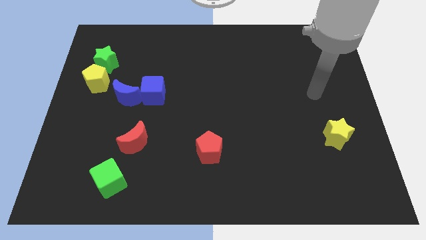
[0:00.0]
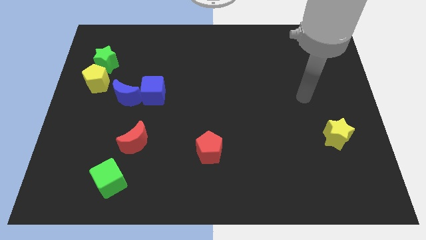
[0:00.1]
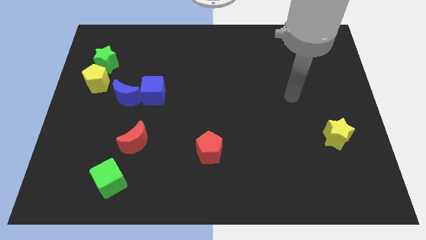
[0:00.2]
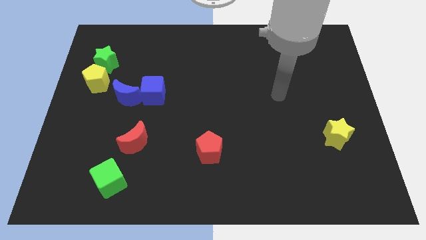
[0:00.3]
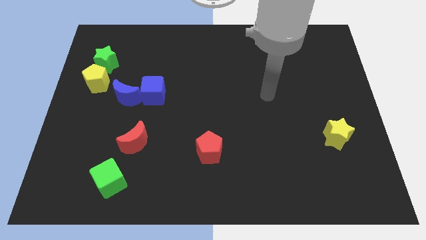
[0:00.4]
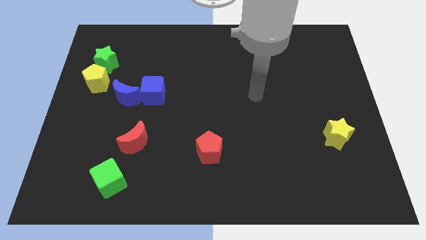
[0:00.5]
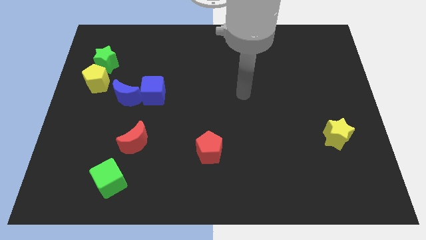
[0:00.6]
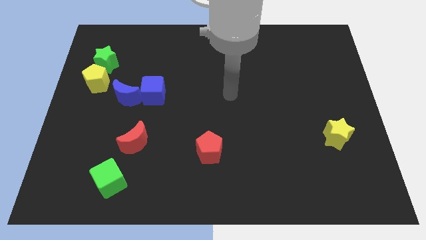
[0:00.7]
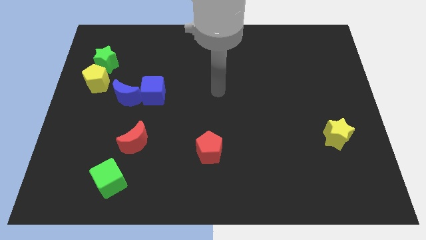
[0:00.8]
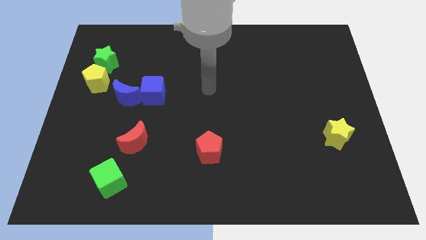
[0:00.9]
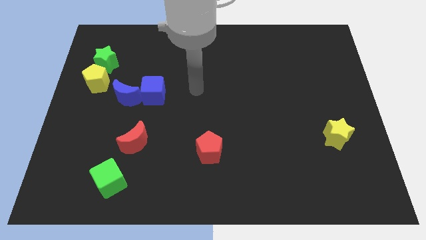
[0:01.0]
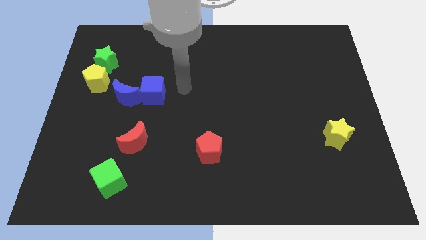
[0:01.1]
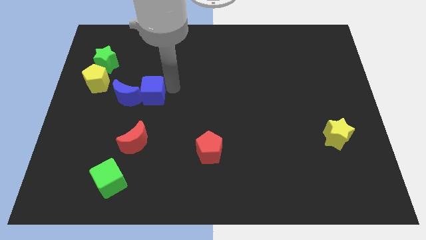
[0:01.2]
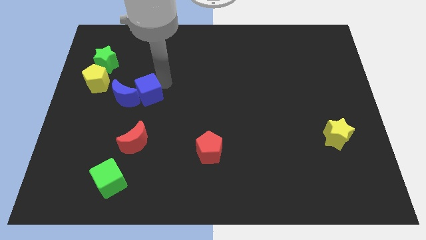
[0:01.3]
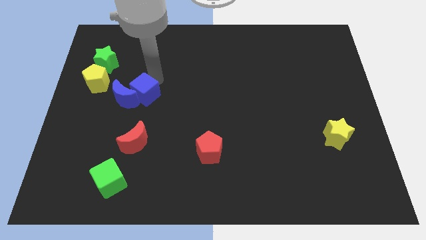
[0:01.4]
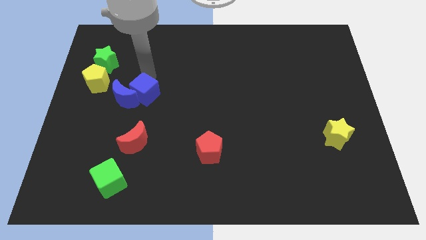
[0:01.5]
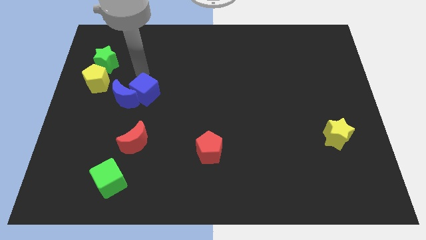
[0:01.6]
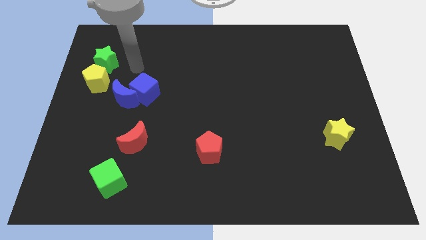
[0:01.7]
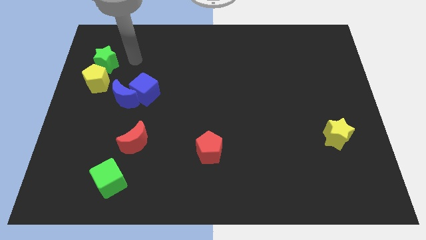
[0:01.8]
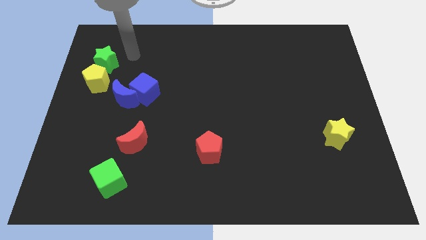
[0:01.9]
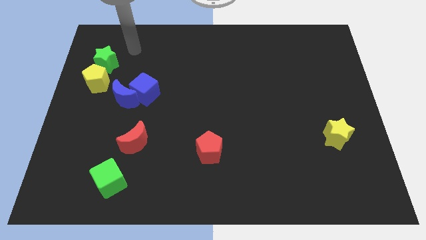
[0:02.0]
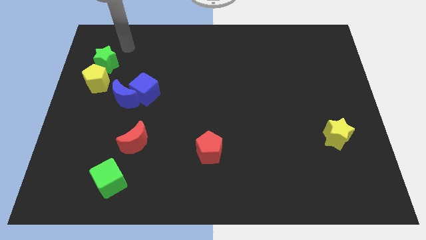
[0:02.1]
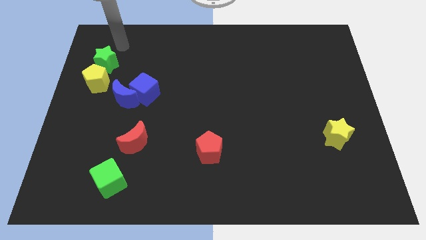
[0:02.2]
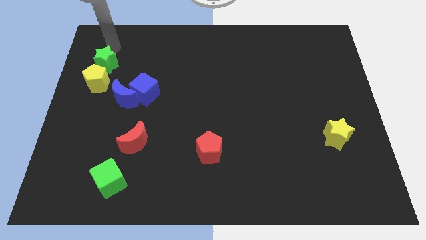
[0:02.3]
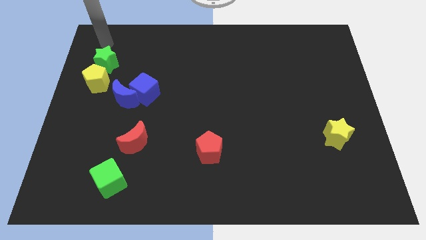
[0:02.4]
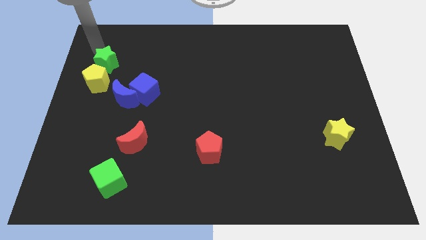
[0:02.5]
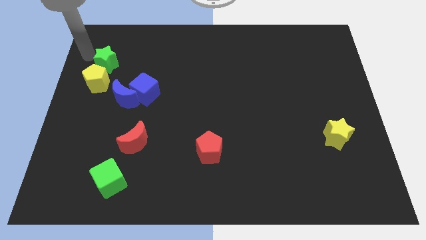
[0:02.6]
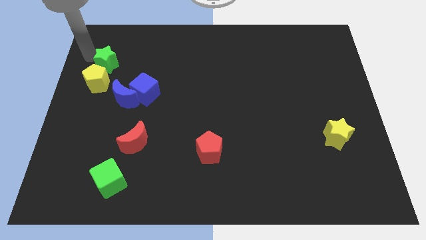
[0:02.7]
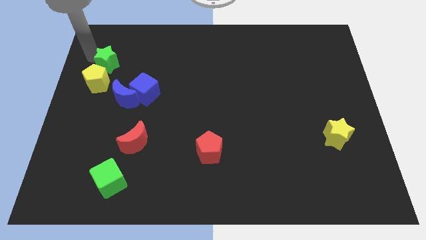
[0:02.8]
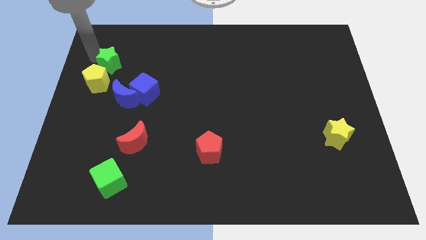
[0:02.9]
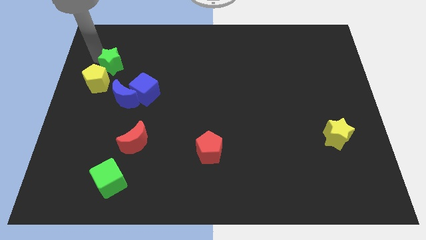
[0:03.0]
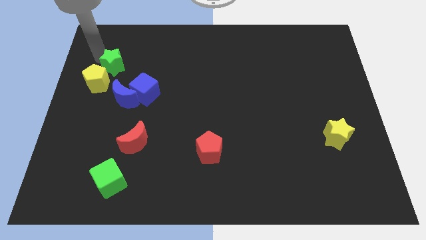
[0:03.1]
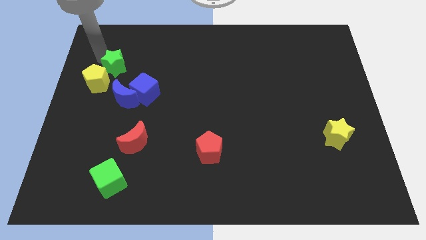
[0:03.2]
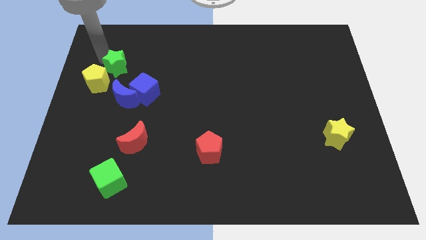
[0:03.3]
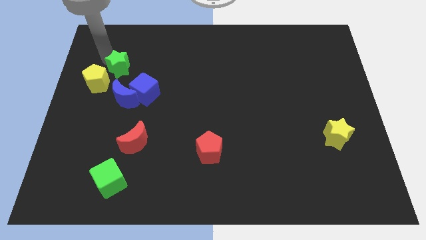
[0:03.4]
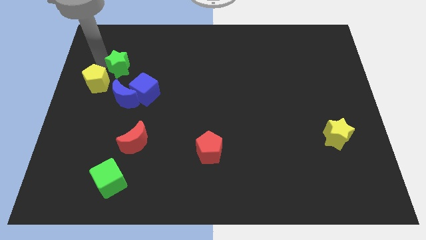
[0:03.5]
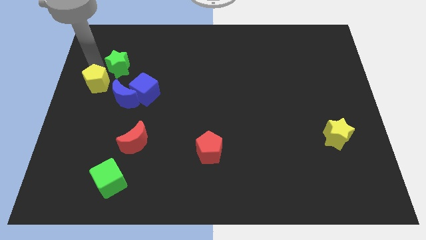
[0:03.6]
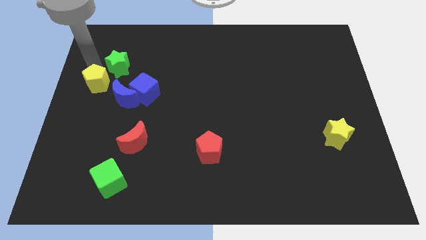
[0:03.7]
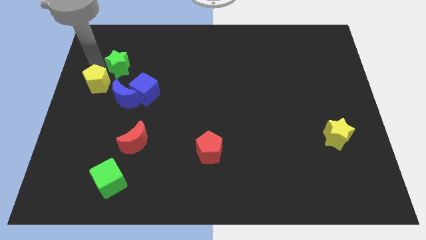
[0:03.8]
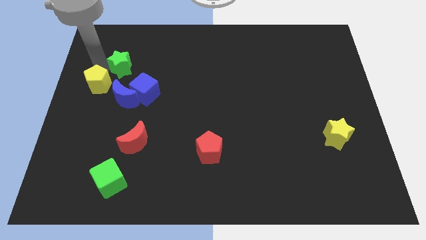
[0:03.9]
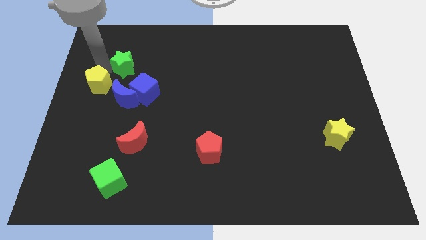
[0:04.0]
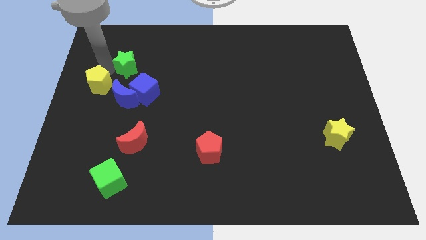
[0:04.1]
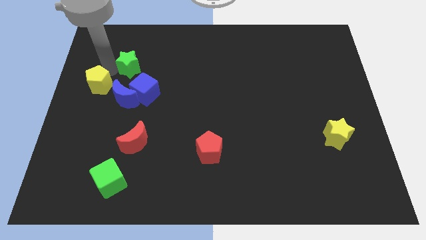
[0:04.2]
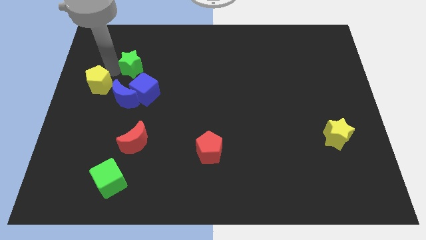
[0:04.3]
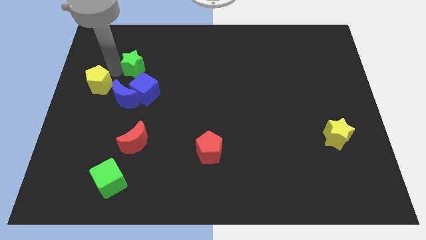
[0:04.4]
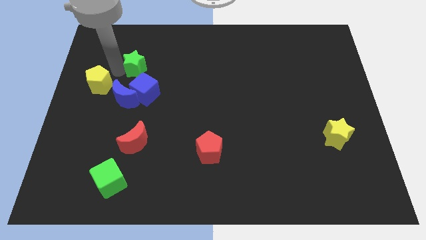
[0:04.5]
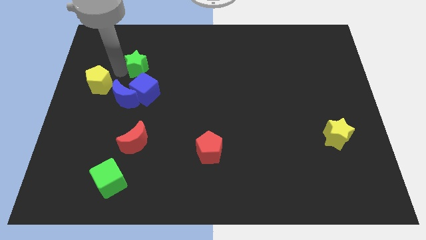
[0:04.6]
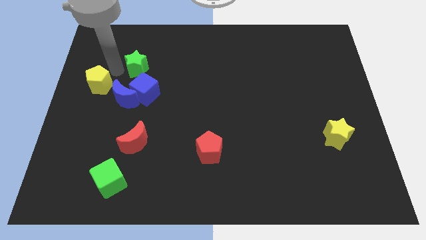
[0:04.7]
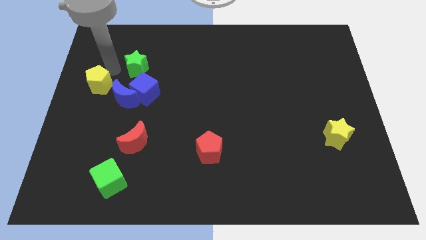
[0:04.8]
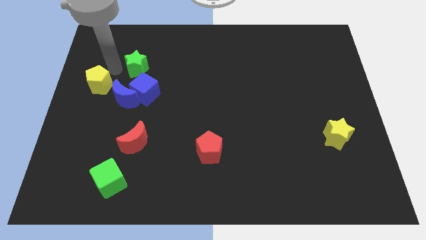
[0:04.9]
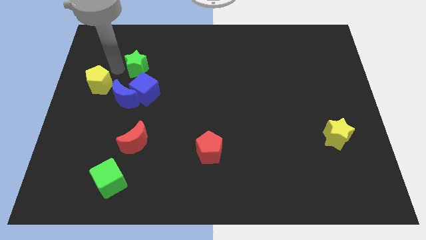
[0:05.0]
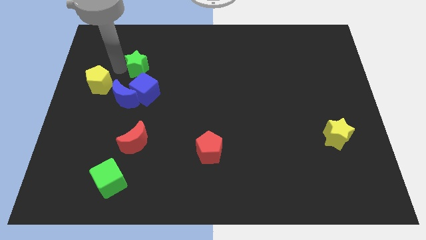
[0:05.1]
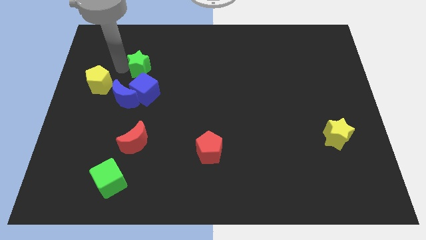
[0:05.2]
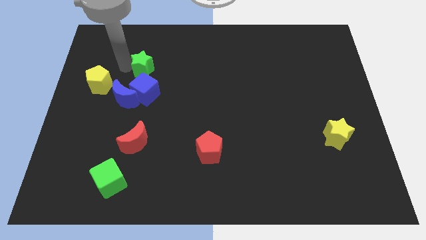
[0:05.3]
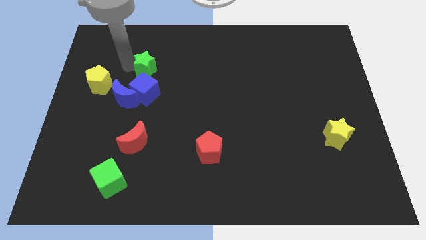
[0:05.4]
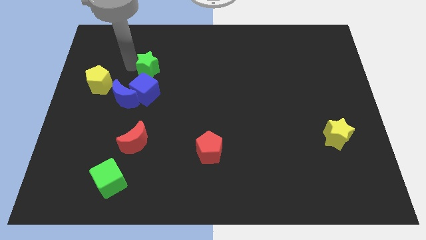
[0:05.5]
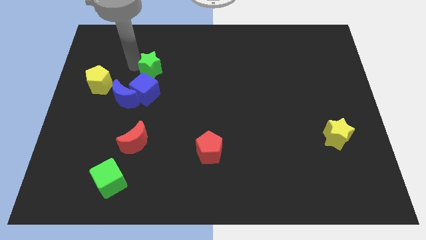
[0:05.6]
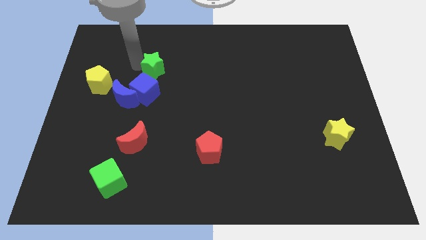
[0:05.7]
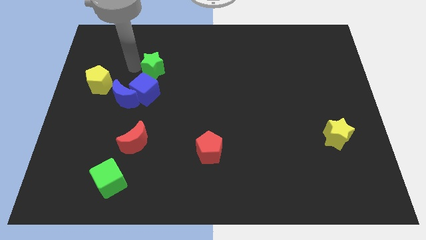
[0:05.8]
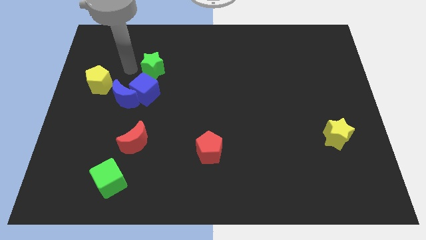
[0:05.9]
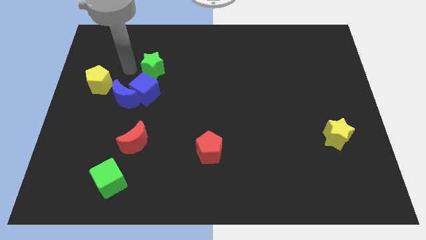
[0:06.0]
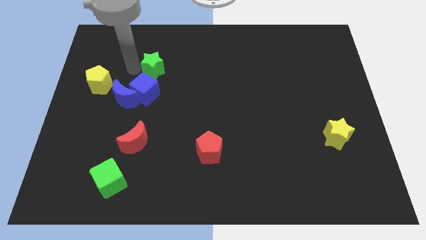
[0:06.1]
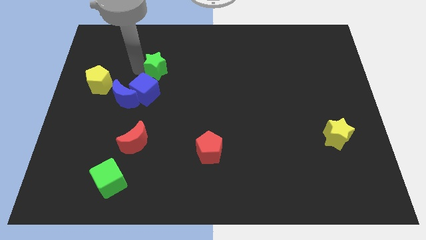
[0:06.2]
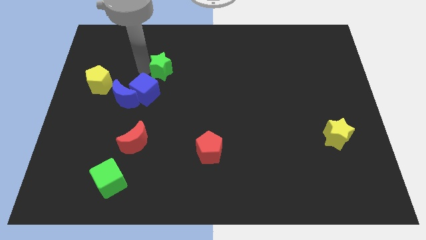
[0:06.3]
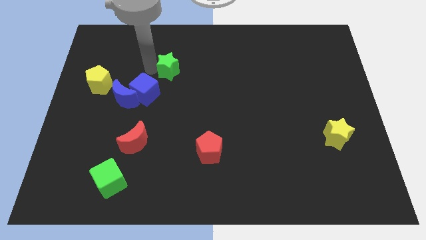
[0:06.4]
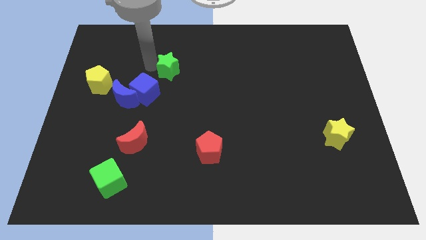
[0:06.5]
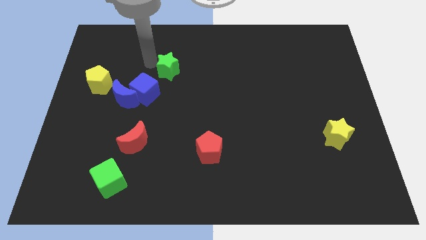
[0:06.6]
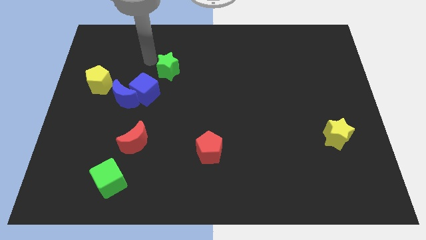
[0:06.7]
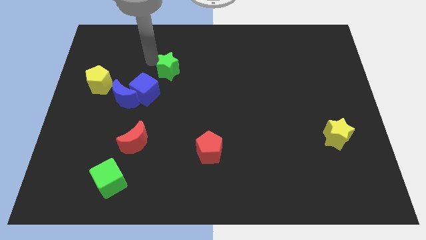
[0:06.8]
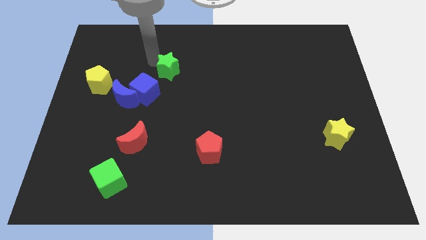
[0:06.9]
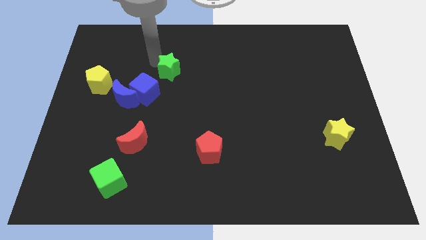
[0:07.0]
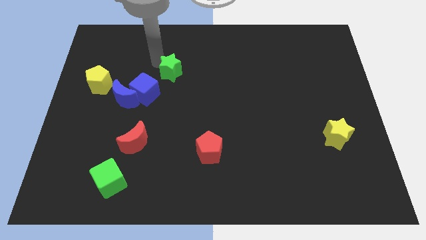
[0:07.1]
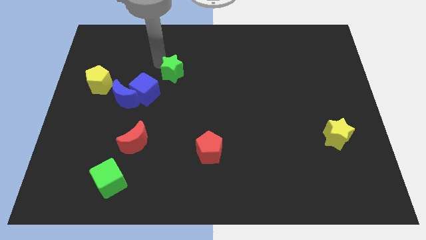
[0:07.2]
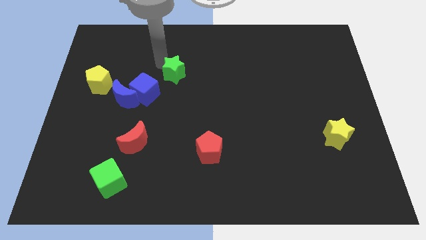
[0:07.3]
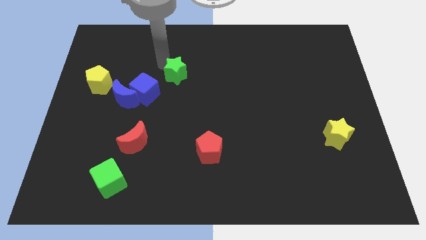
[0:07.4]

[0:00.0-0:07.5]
slide the green star to the middle of the board
